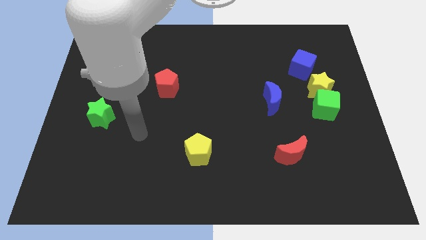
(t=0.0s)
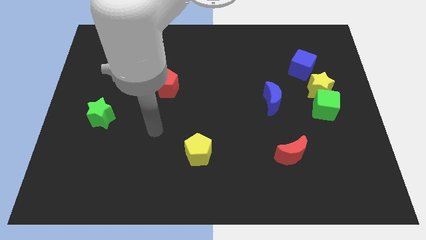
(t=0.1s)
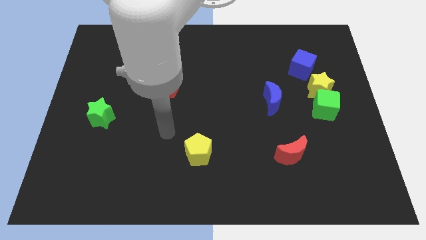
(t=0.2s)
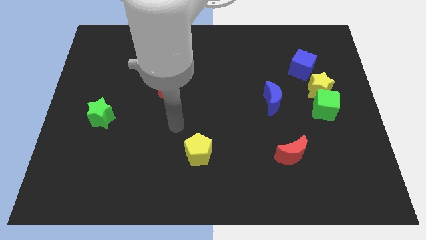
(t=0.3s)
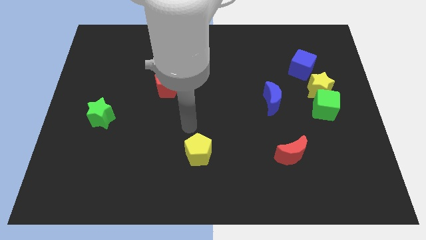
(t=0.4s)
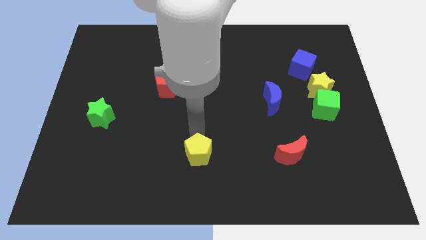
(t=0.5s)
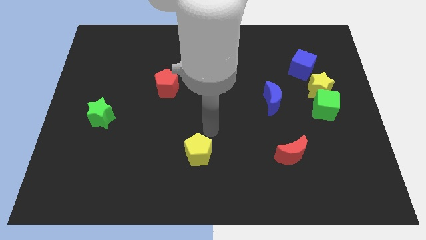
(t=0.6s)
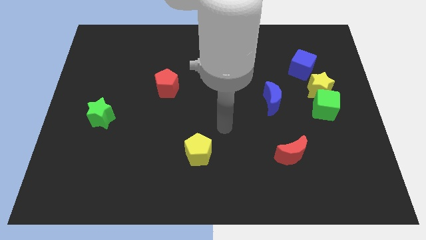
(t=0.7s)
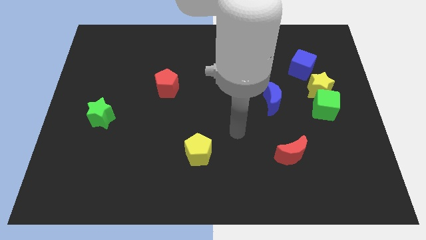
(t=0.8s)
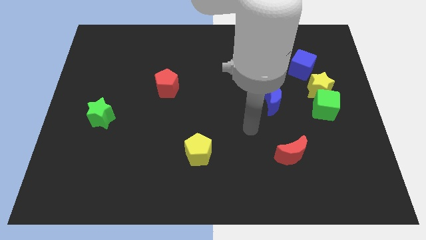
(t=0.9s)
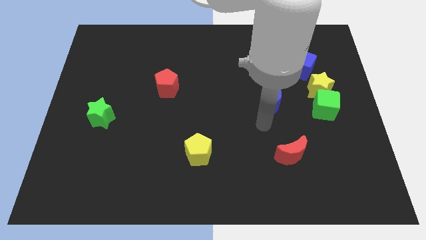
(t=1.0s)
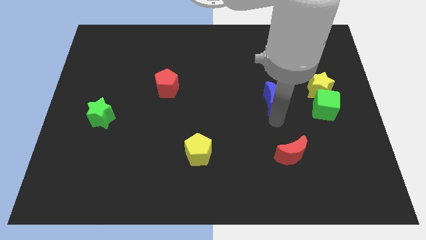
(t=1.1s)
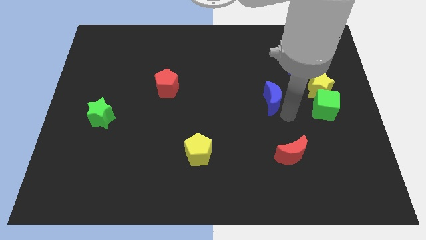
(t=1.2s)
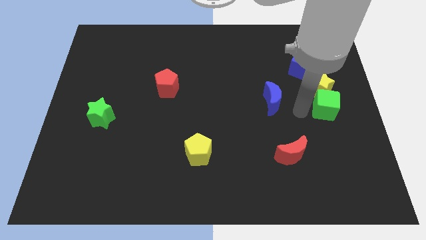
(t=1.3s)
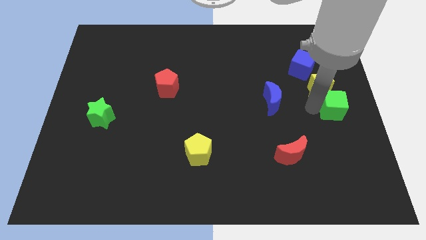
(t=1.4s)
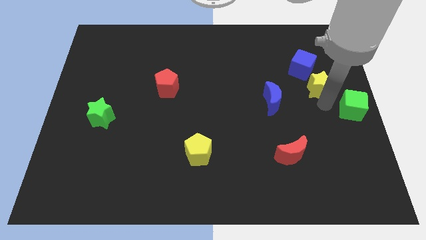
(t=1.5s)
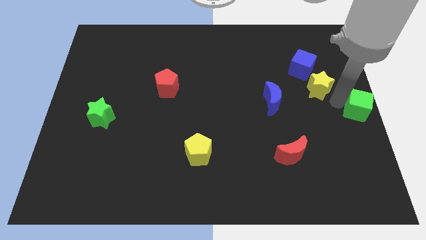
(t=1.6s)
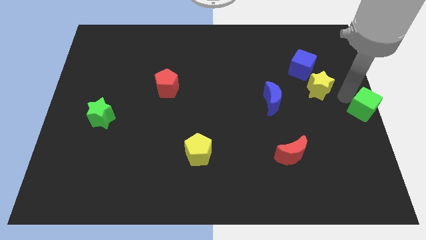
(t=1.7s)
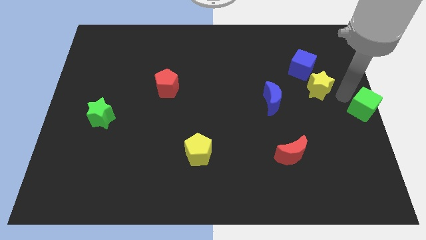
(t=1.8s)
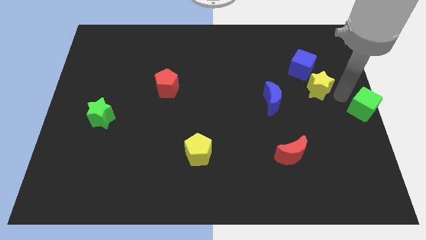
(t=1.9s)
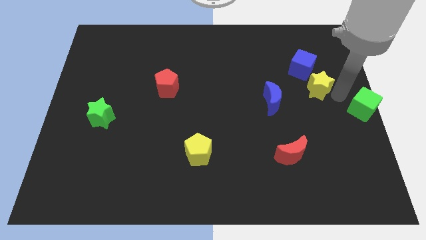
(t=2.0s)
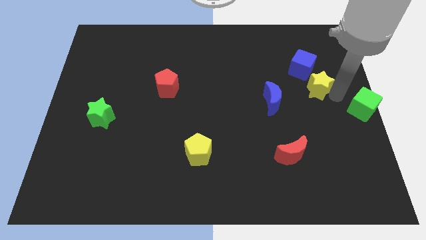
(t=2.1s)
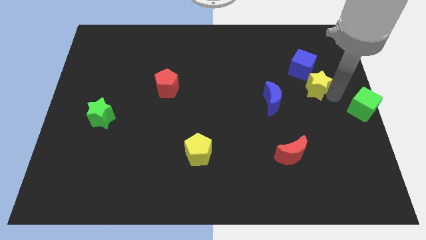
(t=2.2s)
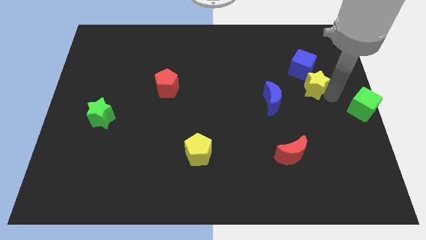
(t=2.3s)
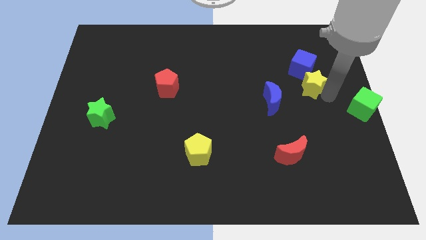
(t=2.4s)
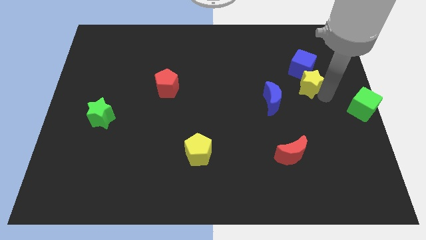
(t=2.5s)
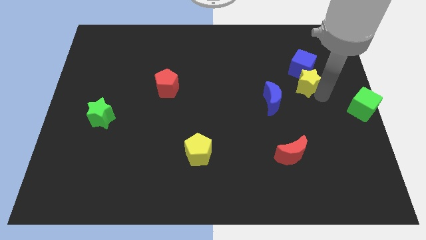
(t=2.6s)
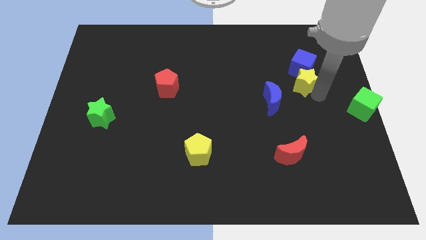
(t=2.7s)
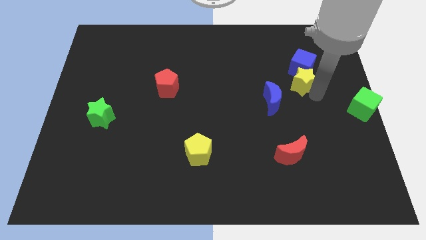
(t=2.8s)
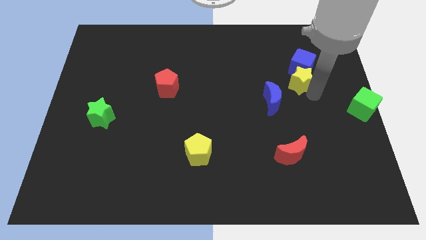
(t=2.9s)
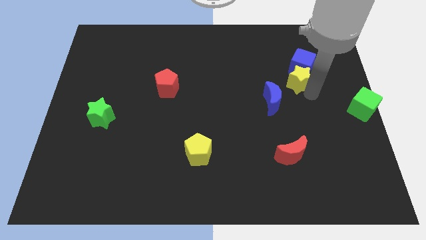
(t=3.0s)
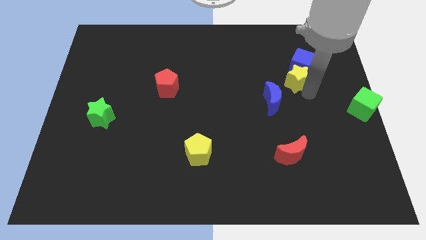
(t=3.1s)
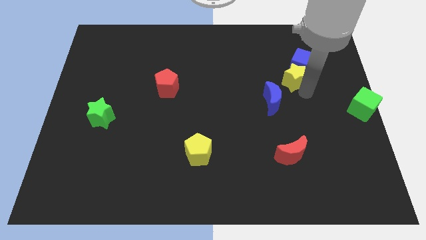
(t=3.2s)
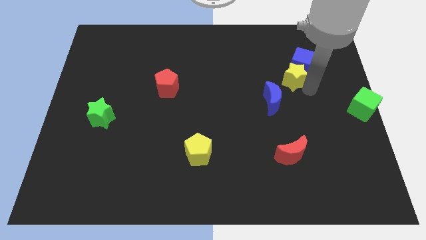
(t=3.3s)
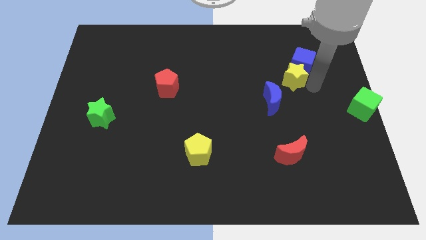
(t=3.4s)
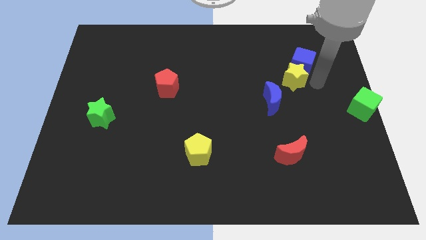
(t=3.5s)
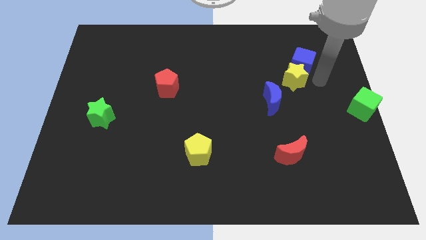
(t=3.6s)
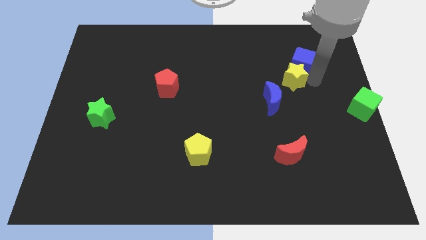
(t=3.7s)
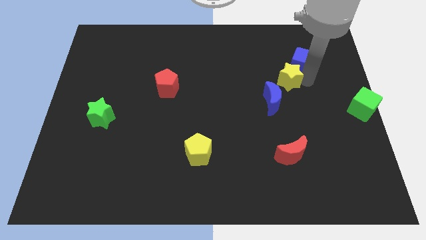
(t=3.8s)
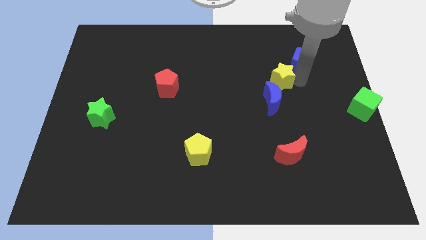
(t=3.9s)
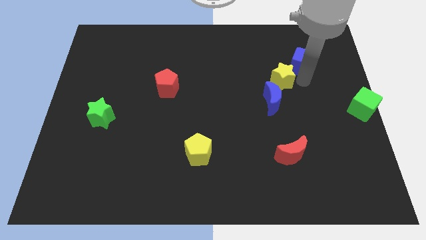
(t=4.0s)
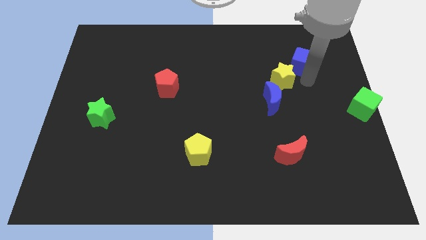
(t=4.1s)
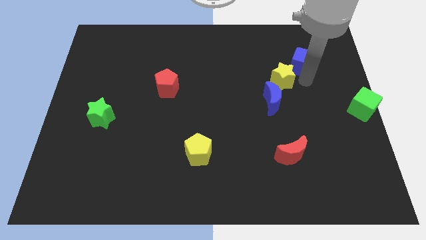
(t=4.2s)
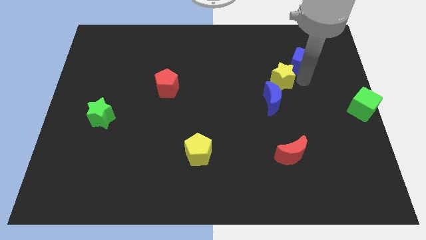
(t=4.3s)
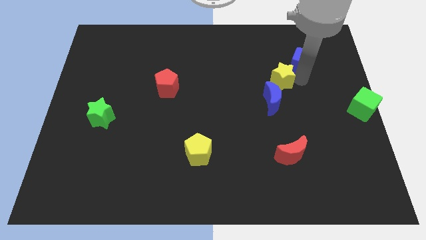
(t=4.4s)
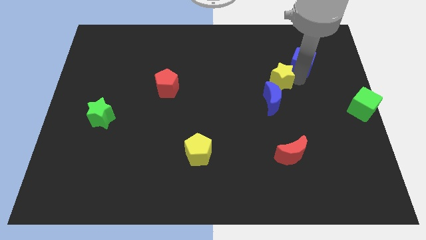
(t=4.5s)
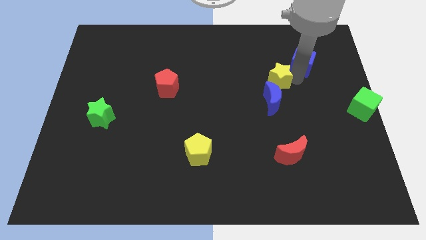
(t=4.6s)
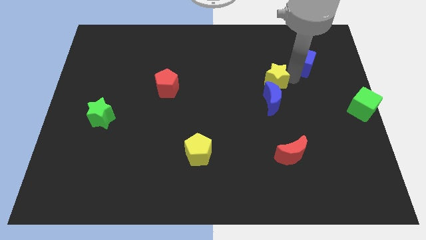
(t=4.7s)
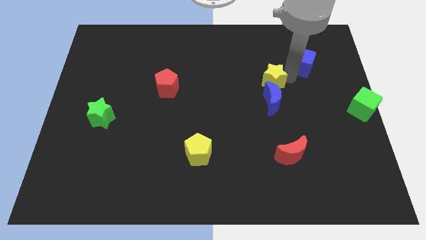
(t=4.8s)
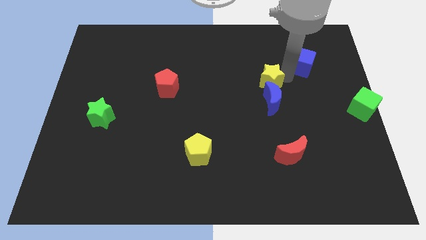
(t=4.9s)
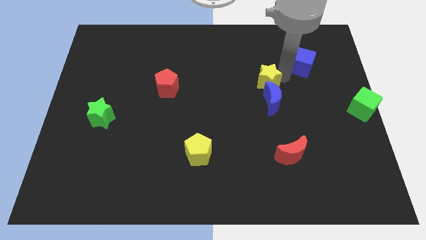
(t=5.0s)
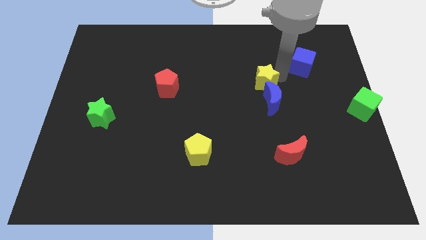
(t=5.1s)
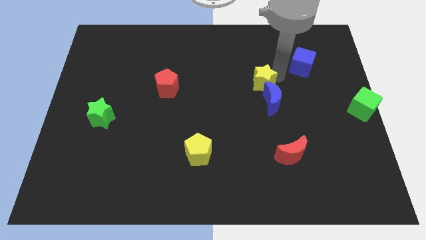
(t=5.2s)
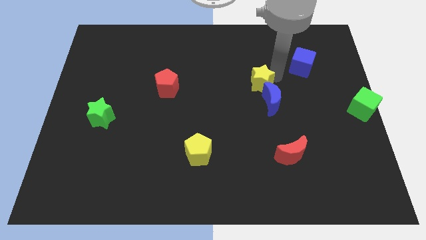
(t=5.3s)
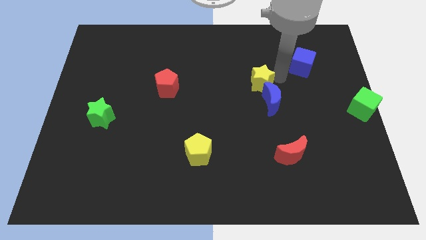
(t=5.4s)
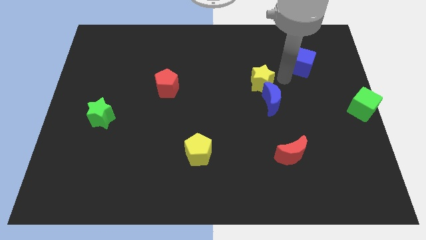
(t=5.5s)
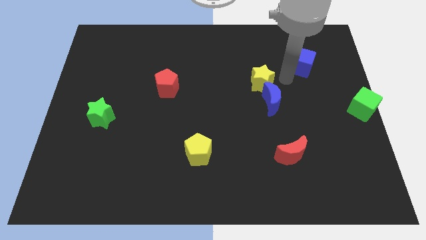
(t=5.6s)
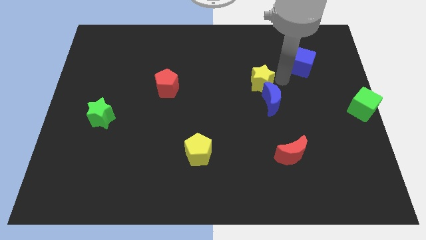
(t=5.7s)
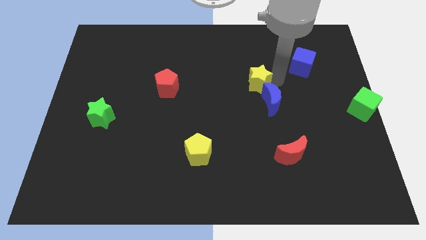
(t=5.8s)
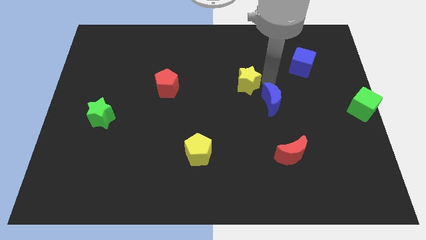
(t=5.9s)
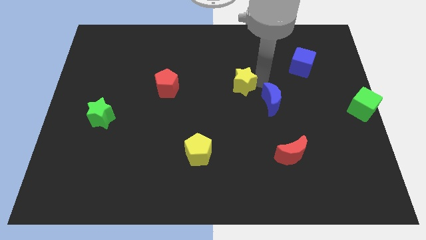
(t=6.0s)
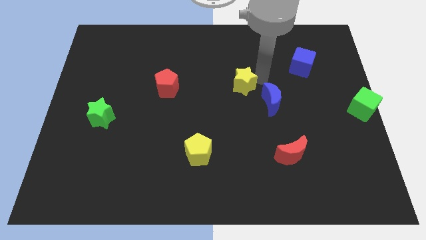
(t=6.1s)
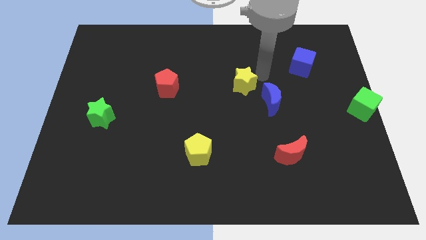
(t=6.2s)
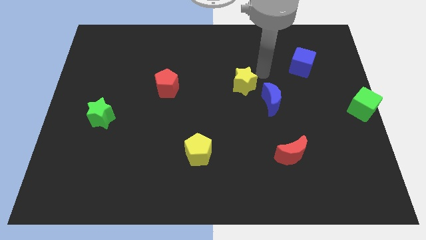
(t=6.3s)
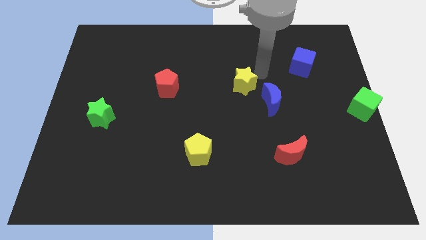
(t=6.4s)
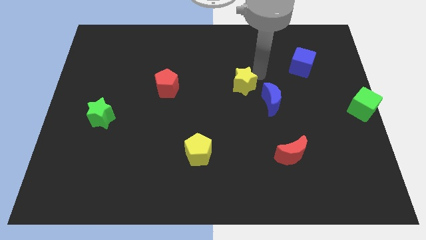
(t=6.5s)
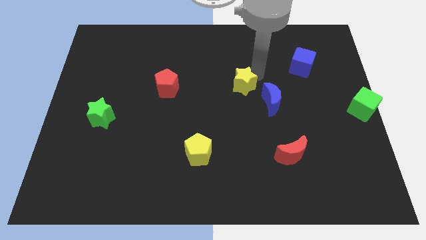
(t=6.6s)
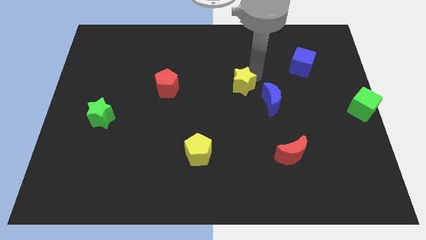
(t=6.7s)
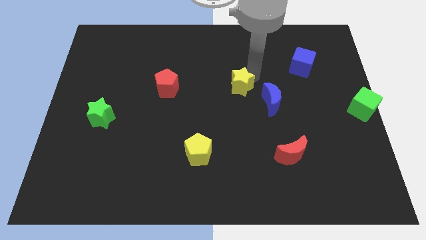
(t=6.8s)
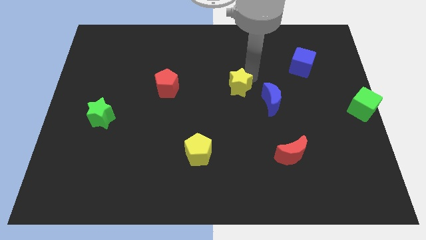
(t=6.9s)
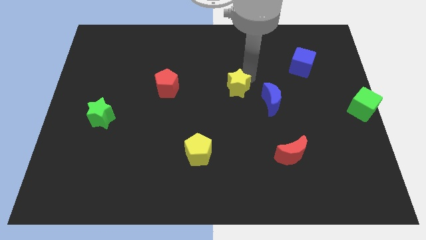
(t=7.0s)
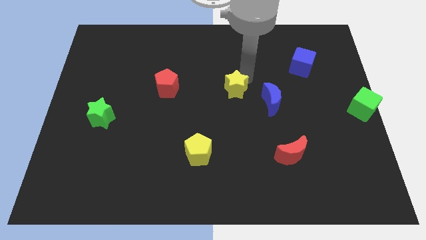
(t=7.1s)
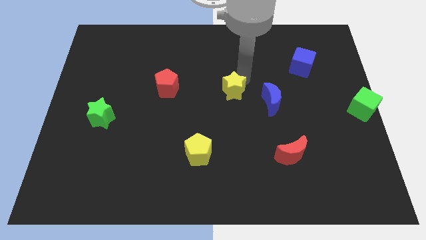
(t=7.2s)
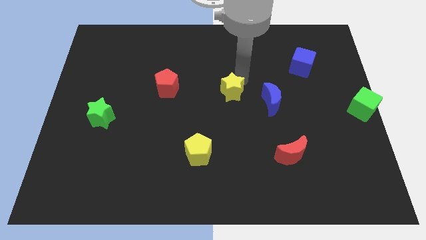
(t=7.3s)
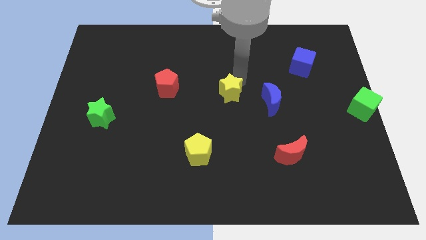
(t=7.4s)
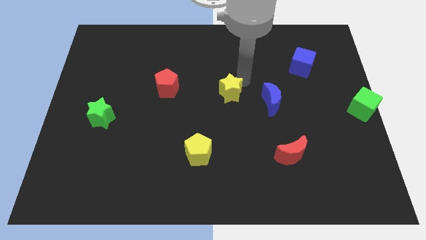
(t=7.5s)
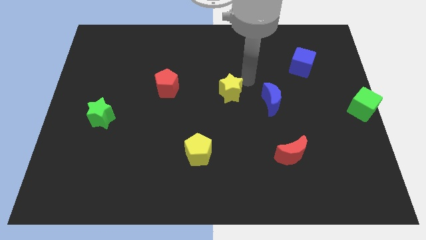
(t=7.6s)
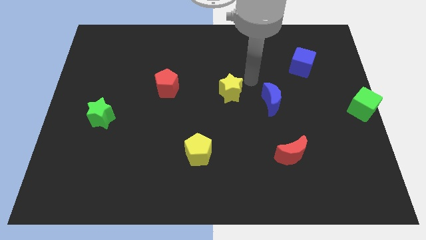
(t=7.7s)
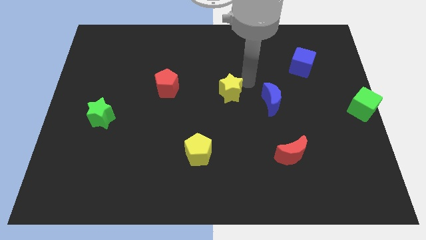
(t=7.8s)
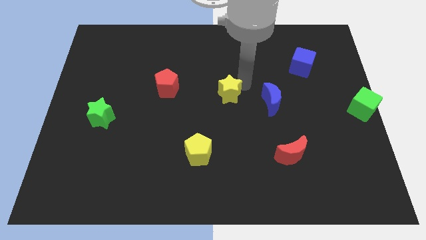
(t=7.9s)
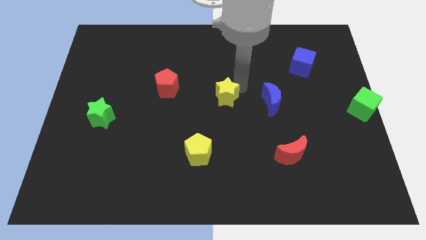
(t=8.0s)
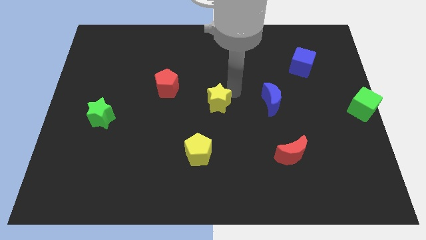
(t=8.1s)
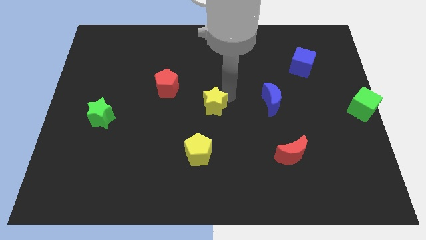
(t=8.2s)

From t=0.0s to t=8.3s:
move the yellow star to the top side of the yellow pentagon
